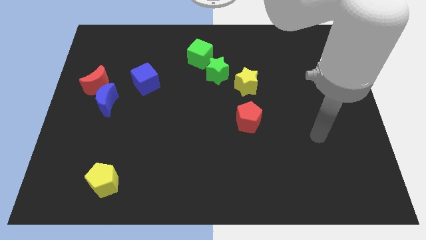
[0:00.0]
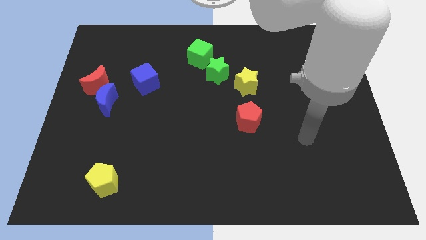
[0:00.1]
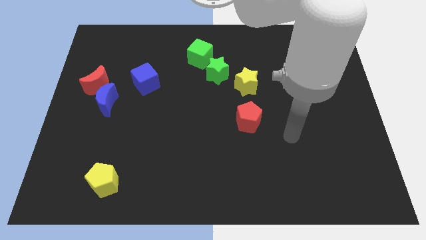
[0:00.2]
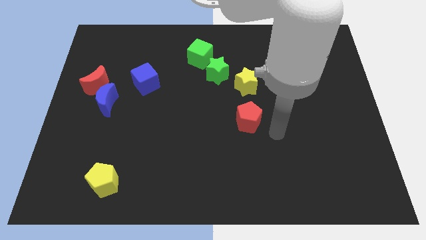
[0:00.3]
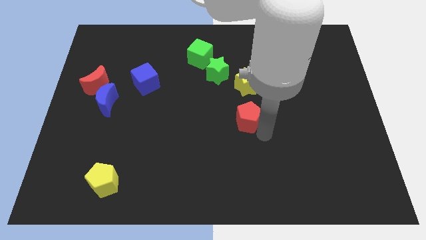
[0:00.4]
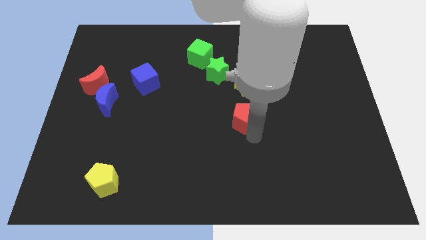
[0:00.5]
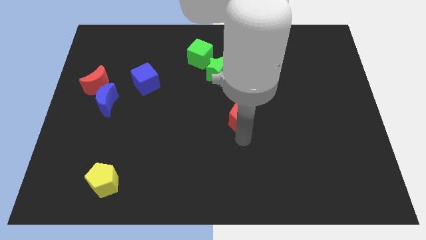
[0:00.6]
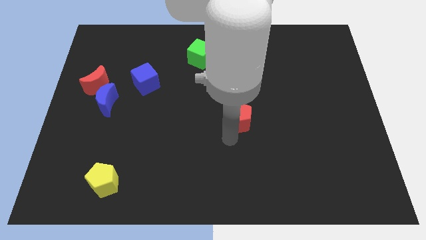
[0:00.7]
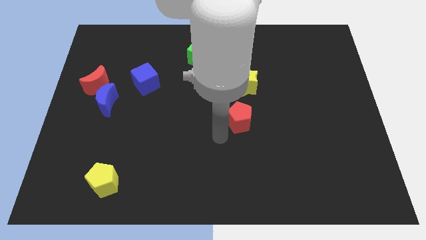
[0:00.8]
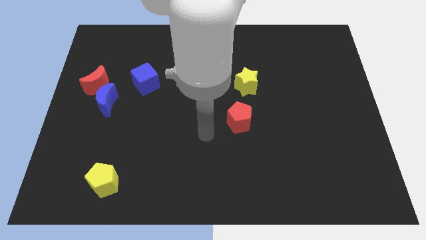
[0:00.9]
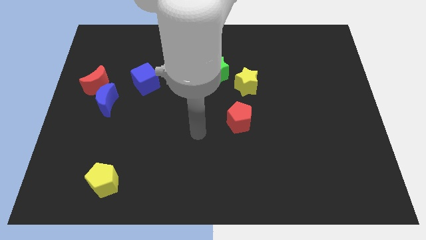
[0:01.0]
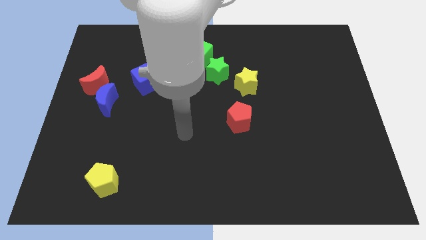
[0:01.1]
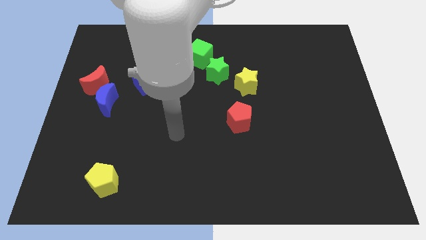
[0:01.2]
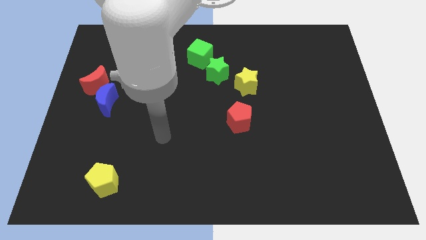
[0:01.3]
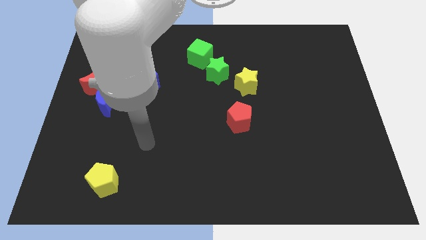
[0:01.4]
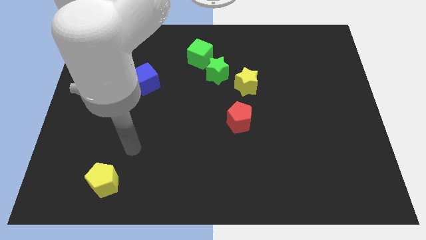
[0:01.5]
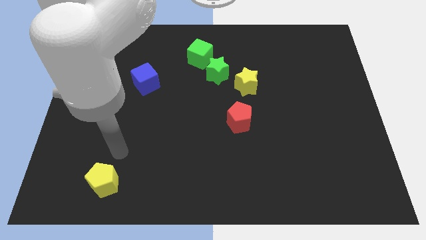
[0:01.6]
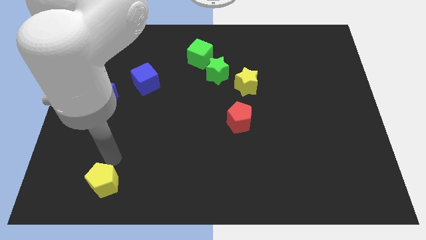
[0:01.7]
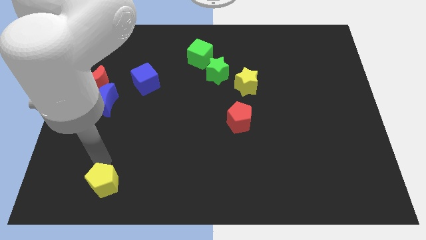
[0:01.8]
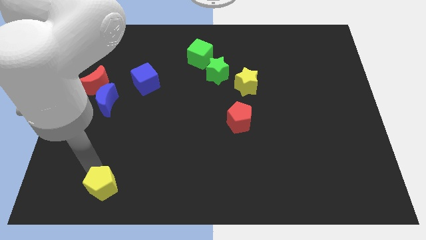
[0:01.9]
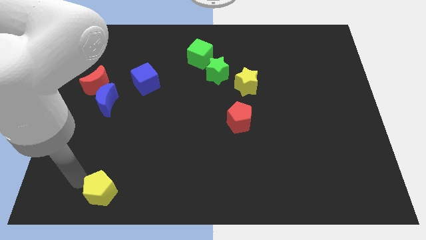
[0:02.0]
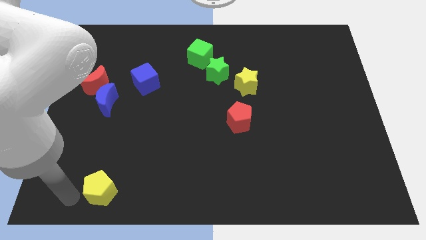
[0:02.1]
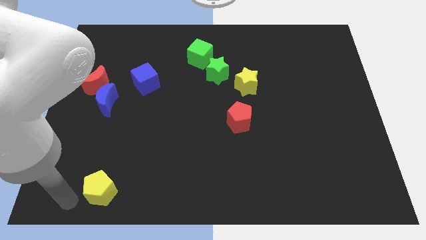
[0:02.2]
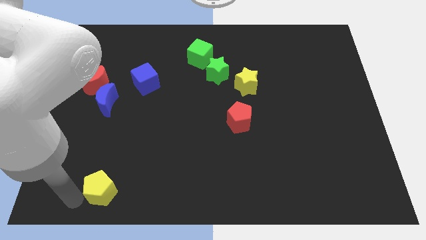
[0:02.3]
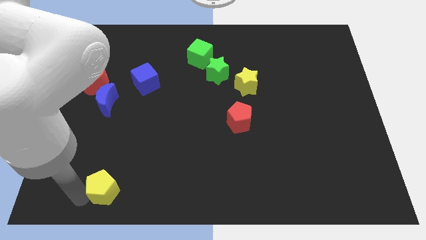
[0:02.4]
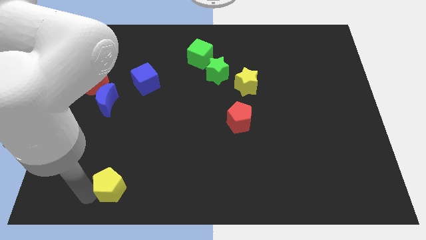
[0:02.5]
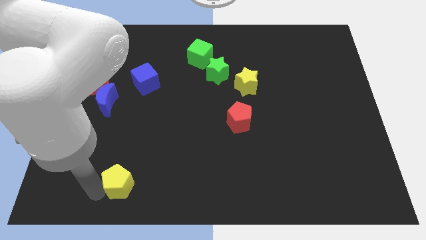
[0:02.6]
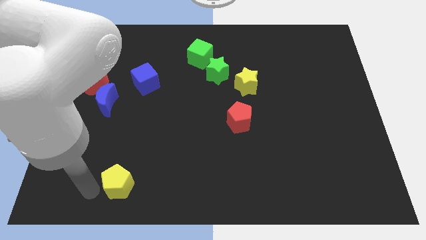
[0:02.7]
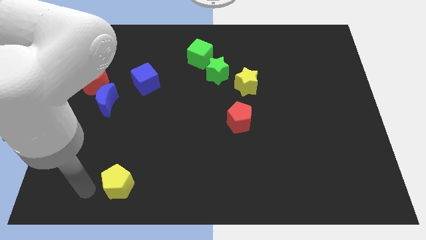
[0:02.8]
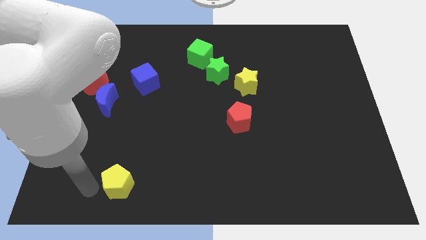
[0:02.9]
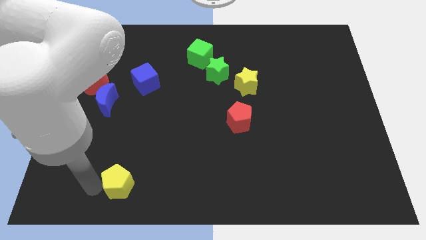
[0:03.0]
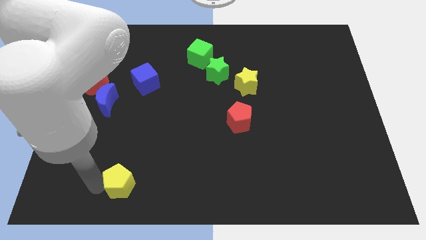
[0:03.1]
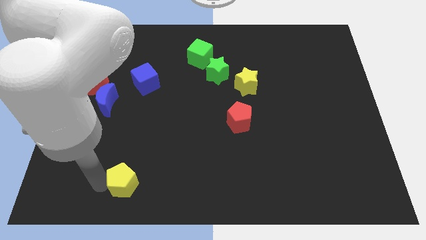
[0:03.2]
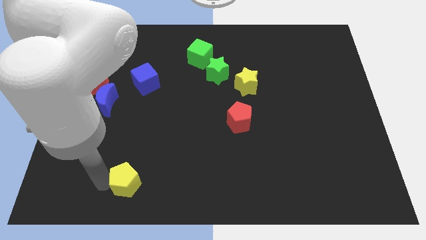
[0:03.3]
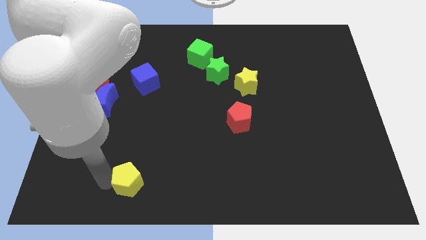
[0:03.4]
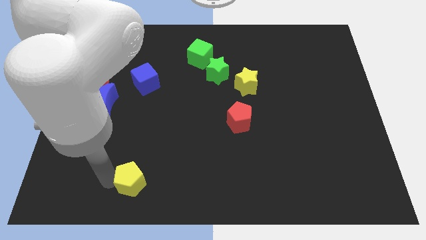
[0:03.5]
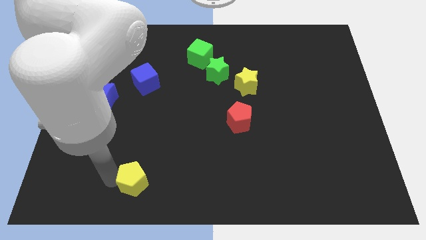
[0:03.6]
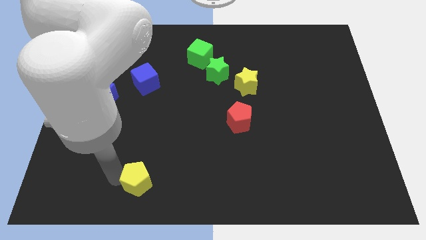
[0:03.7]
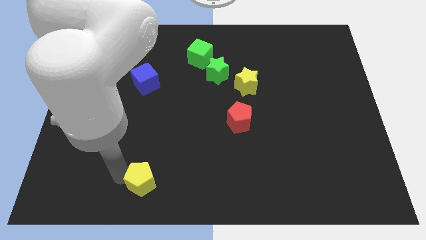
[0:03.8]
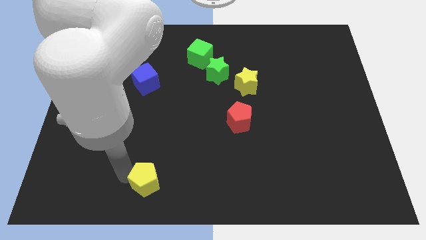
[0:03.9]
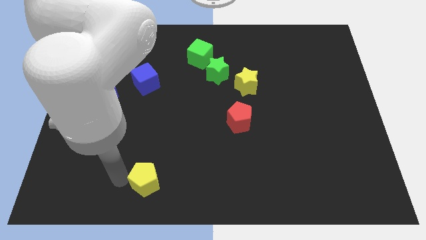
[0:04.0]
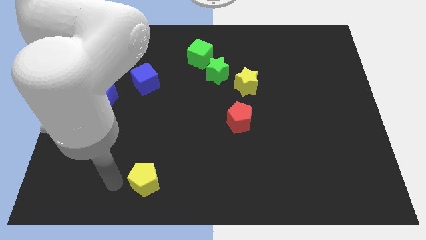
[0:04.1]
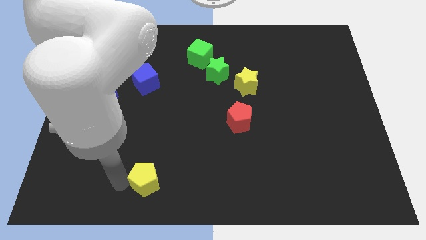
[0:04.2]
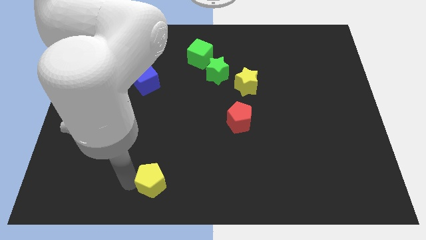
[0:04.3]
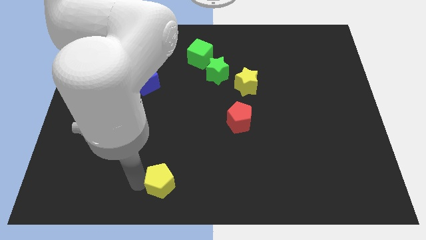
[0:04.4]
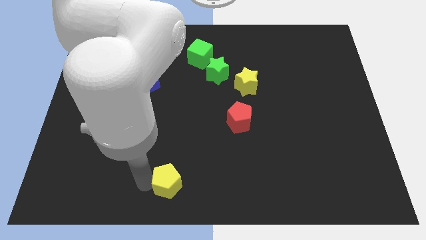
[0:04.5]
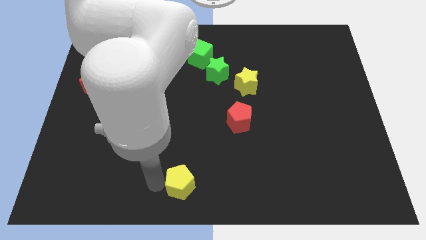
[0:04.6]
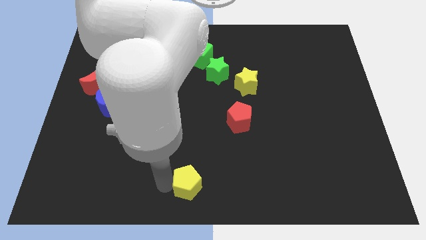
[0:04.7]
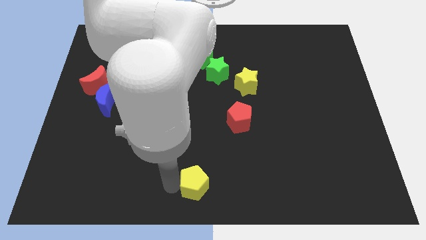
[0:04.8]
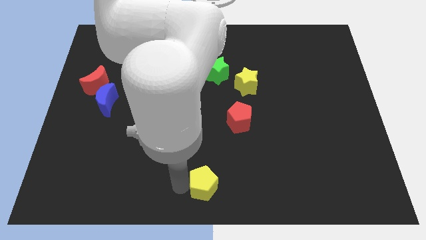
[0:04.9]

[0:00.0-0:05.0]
slide the yellow pentagon to the right

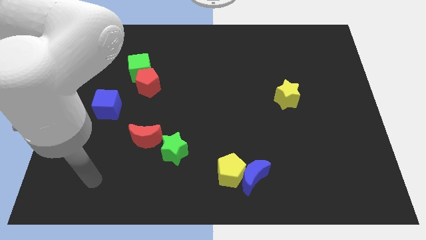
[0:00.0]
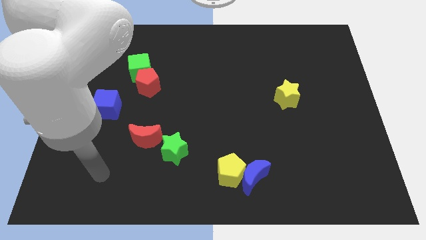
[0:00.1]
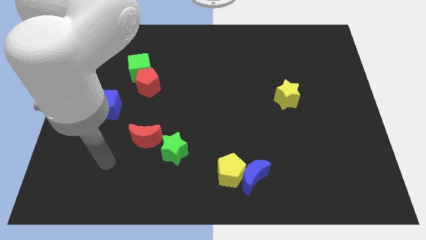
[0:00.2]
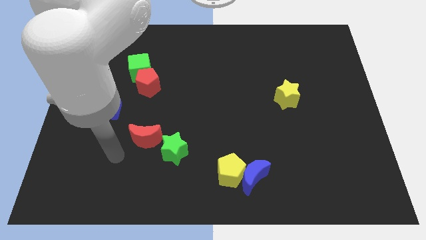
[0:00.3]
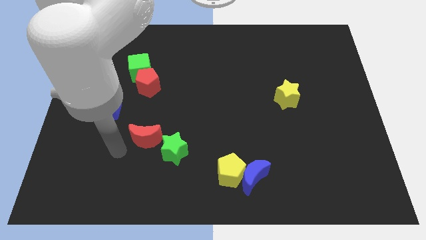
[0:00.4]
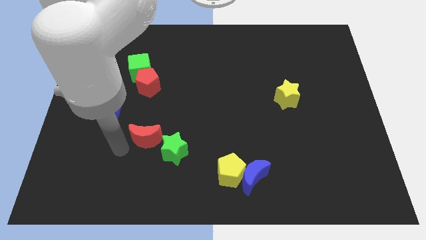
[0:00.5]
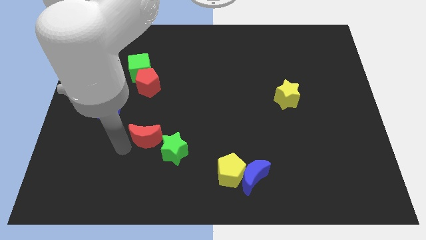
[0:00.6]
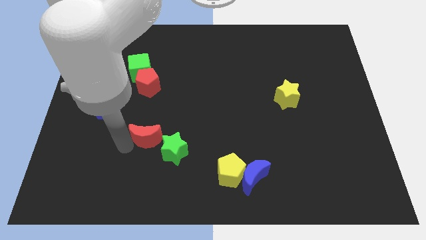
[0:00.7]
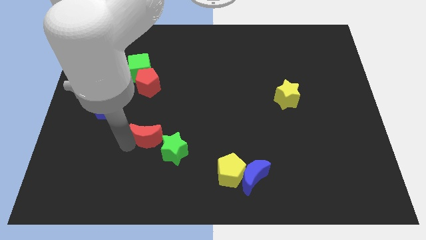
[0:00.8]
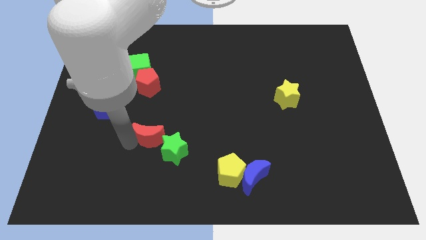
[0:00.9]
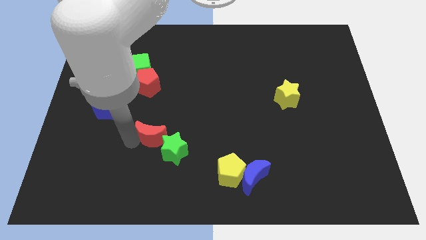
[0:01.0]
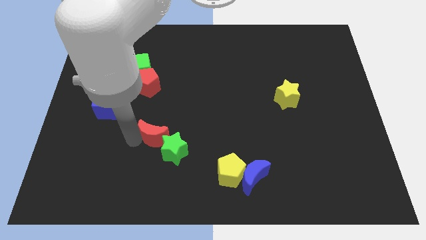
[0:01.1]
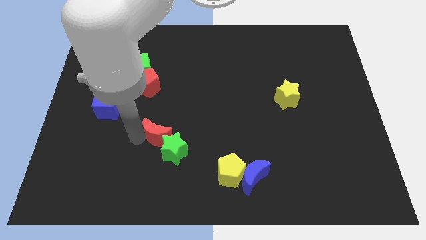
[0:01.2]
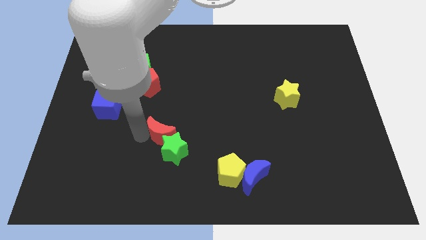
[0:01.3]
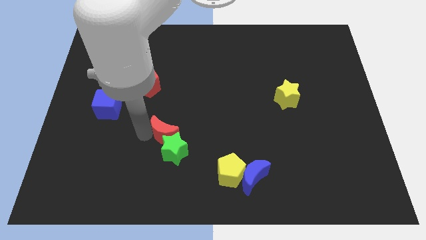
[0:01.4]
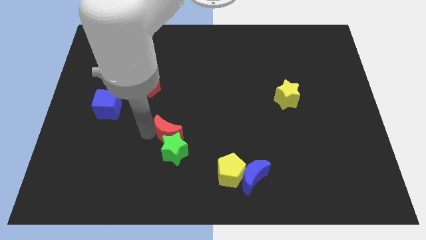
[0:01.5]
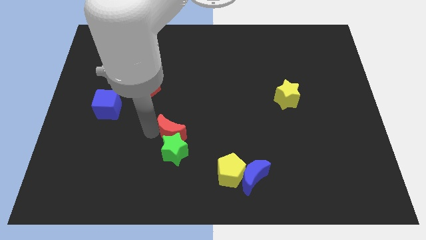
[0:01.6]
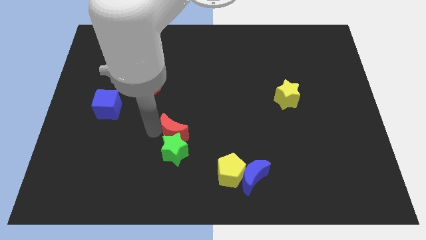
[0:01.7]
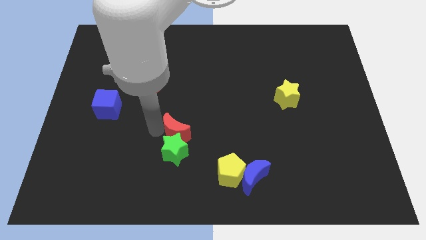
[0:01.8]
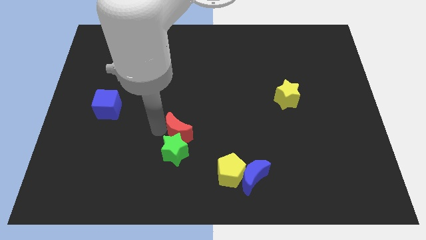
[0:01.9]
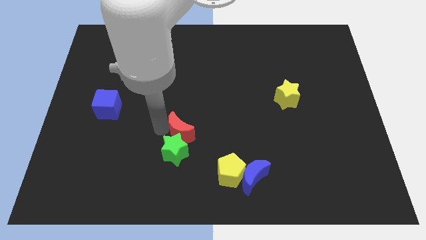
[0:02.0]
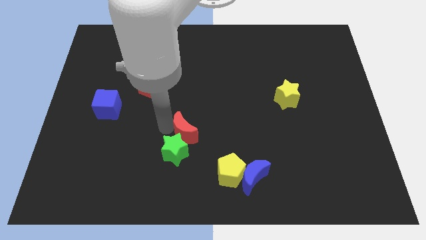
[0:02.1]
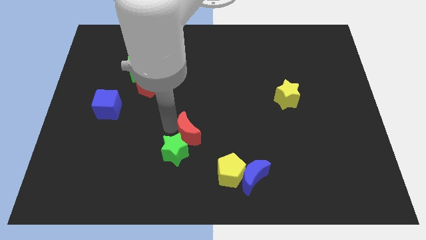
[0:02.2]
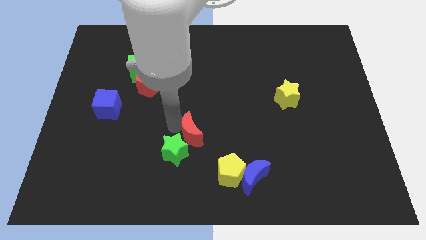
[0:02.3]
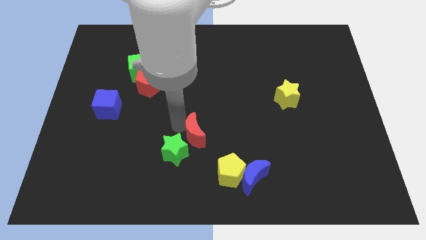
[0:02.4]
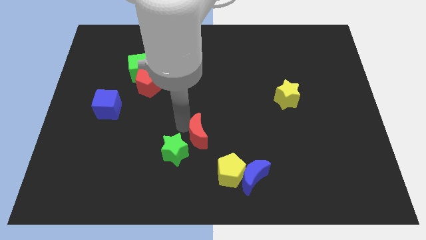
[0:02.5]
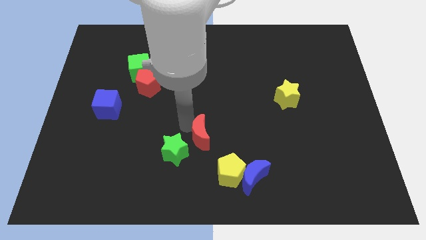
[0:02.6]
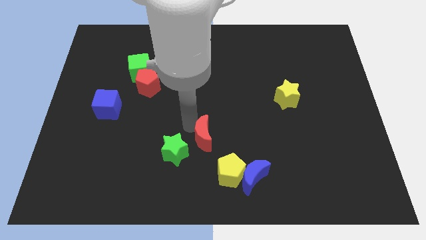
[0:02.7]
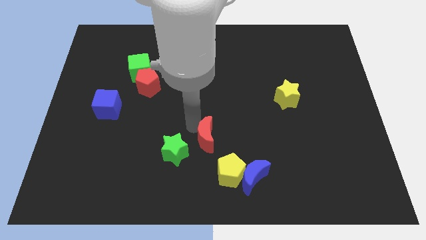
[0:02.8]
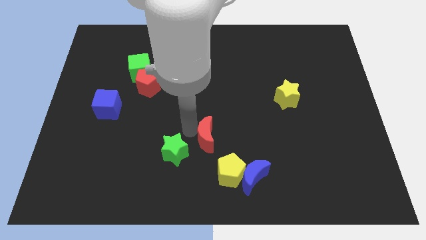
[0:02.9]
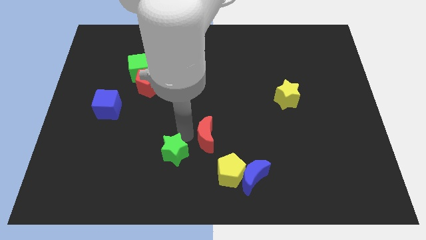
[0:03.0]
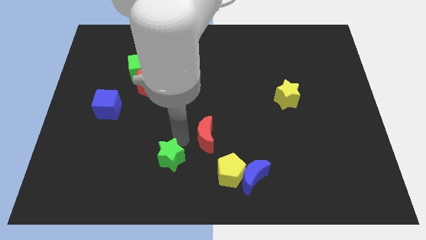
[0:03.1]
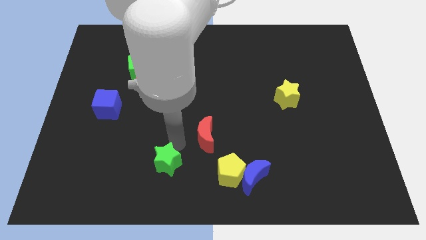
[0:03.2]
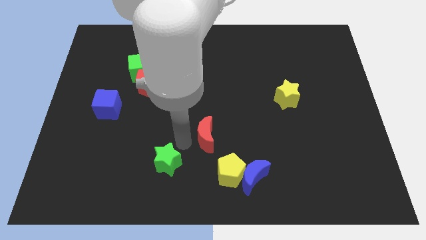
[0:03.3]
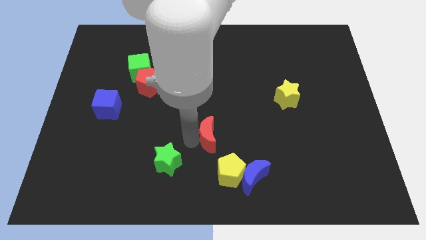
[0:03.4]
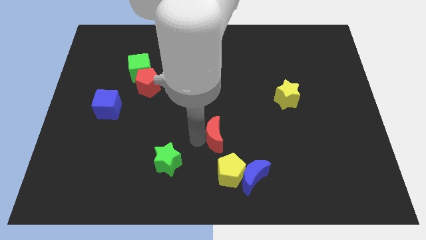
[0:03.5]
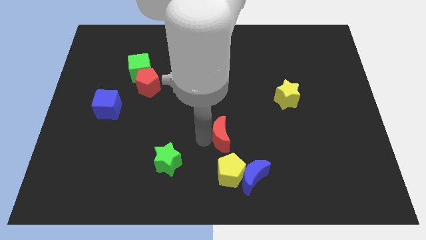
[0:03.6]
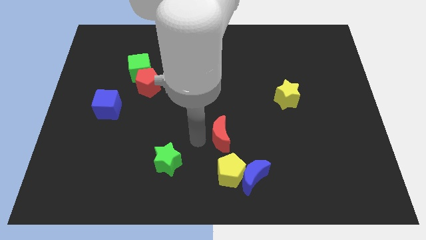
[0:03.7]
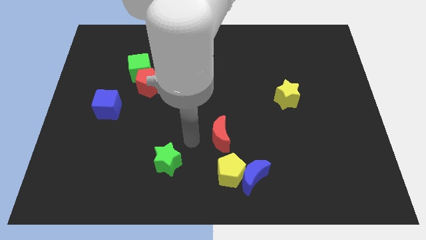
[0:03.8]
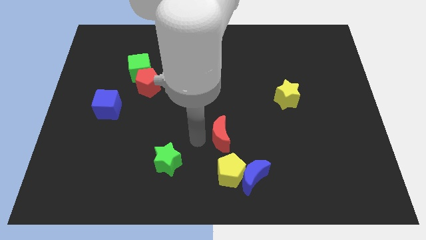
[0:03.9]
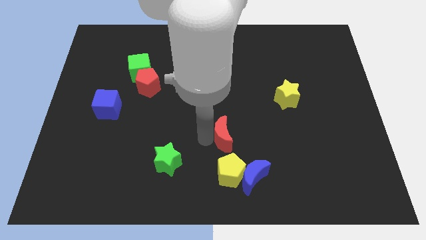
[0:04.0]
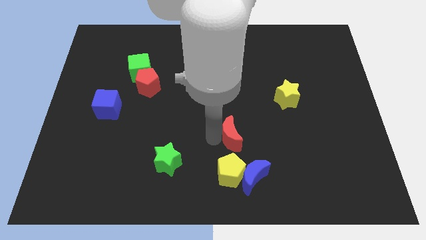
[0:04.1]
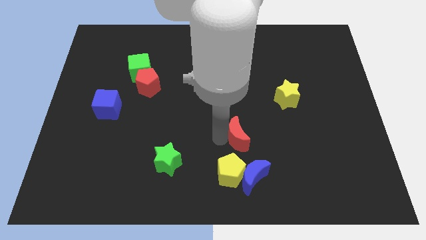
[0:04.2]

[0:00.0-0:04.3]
push the red moon right
